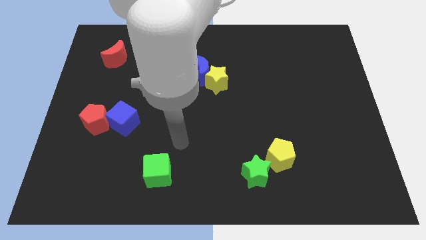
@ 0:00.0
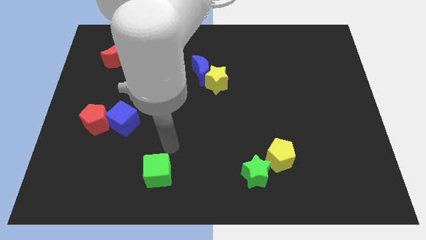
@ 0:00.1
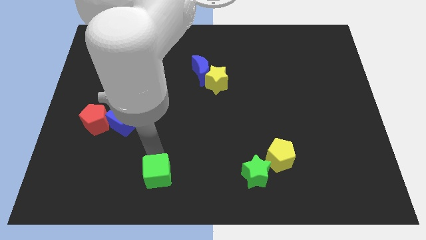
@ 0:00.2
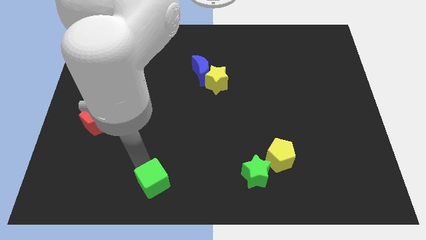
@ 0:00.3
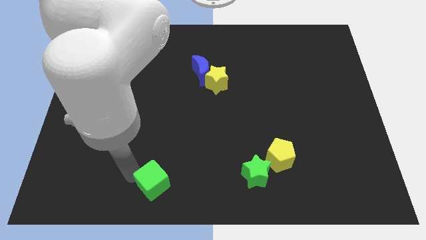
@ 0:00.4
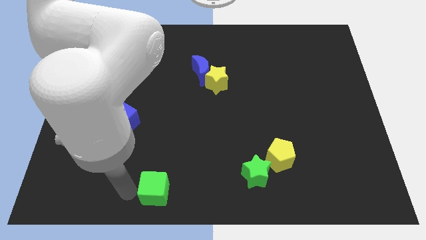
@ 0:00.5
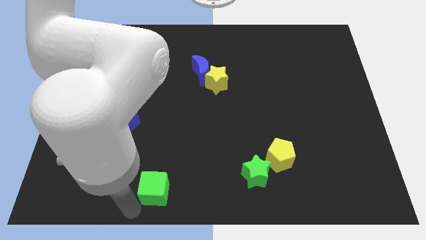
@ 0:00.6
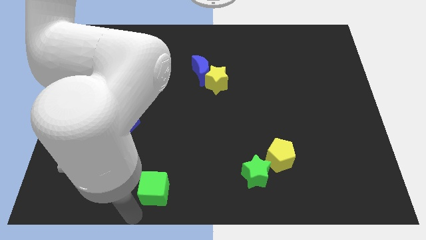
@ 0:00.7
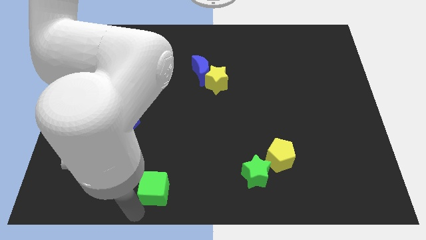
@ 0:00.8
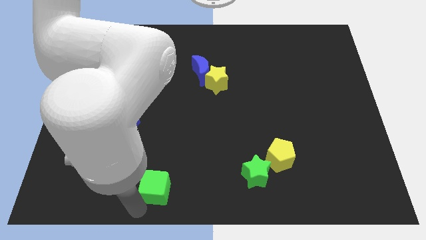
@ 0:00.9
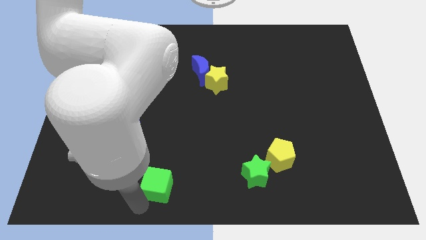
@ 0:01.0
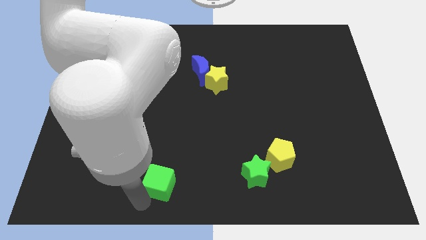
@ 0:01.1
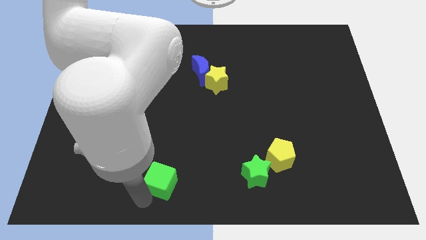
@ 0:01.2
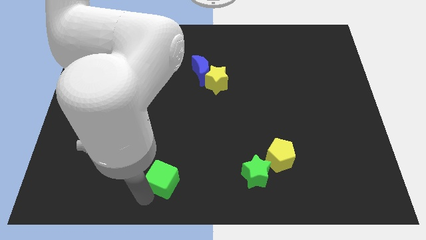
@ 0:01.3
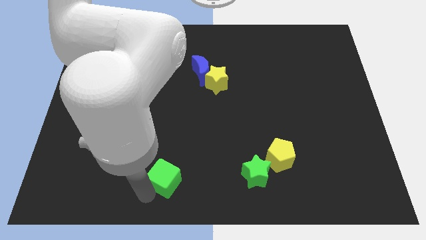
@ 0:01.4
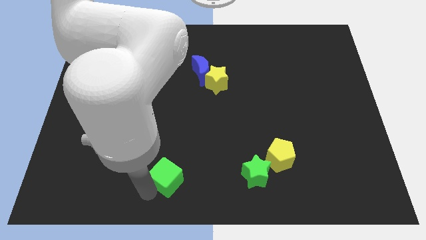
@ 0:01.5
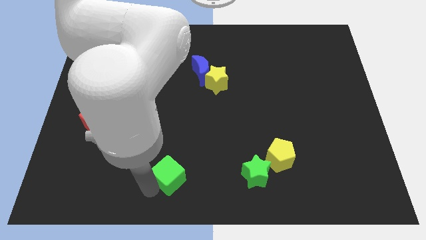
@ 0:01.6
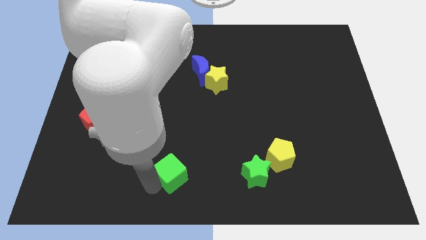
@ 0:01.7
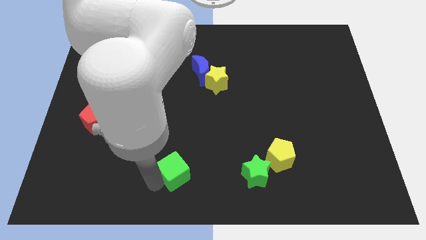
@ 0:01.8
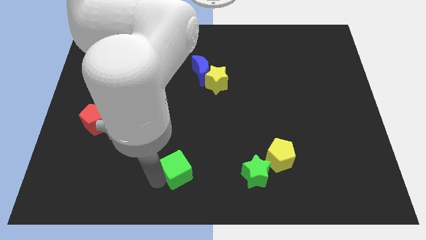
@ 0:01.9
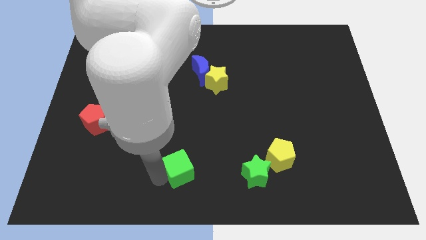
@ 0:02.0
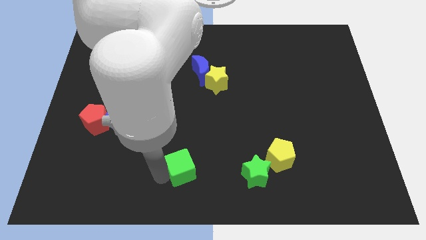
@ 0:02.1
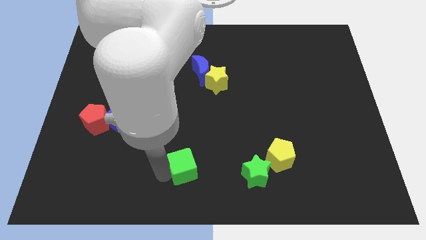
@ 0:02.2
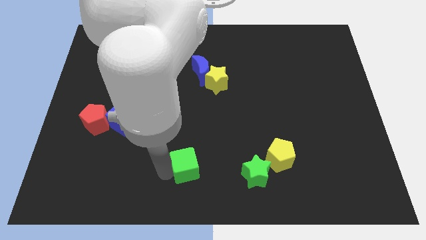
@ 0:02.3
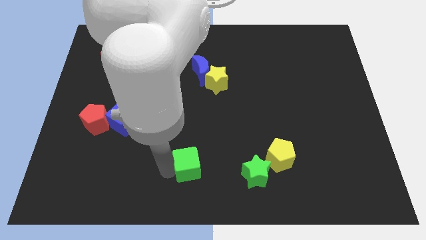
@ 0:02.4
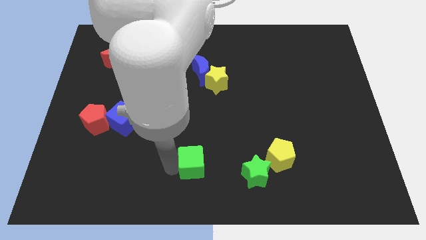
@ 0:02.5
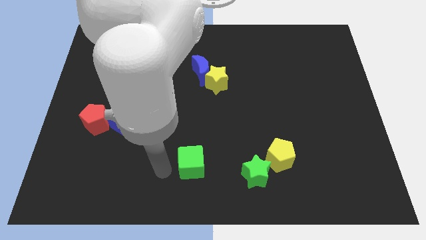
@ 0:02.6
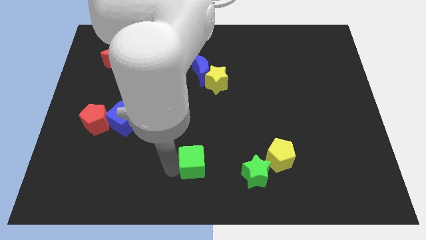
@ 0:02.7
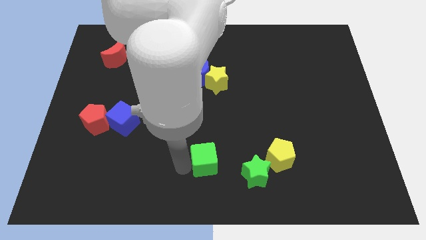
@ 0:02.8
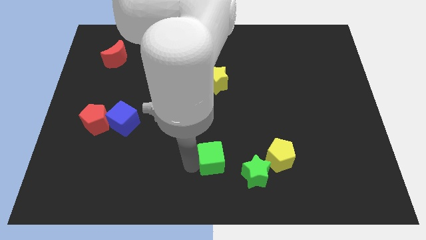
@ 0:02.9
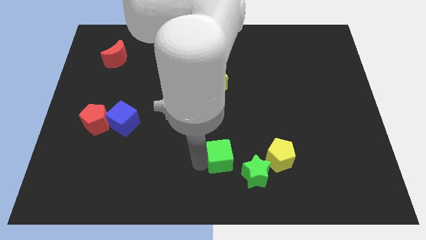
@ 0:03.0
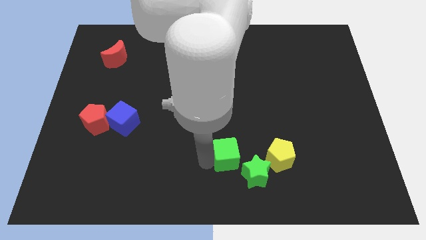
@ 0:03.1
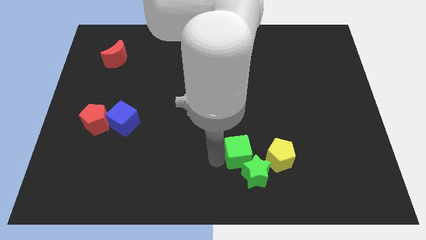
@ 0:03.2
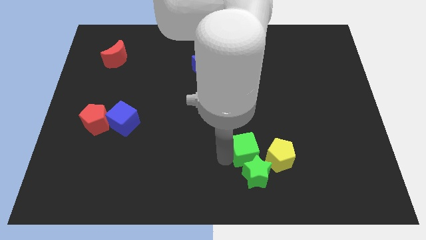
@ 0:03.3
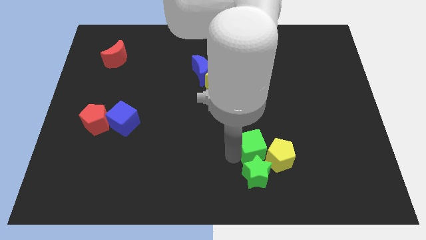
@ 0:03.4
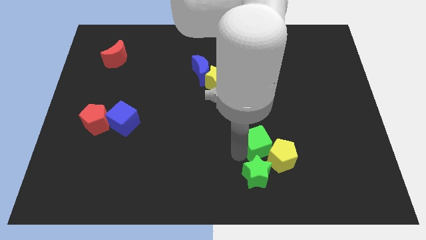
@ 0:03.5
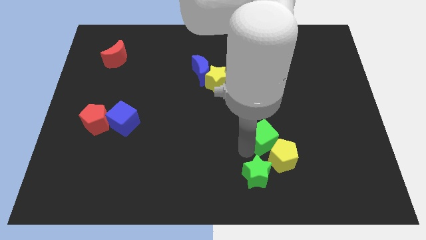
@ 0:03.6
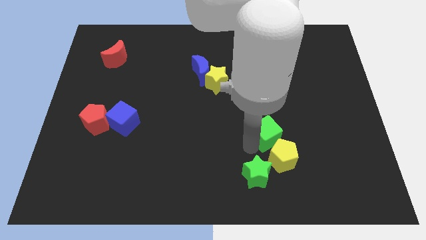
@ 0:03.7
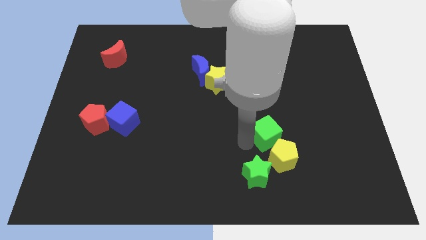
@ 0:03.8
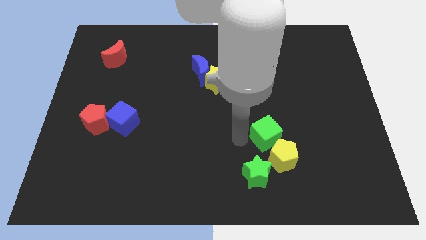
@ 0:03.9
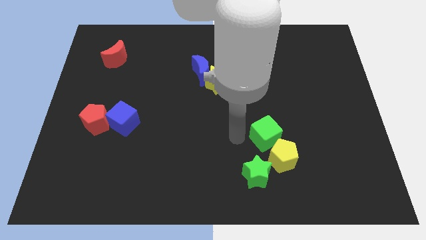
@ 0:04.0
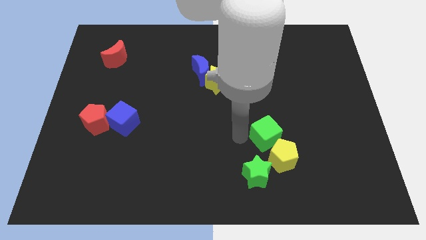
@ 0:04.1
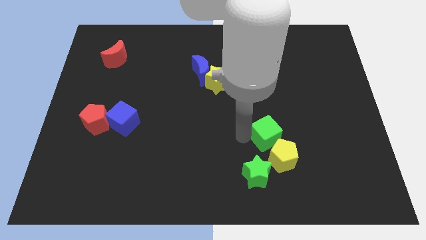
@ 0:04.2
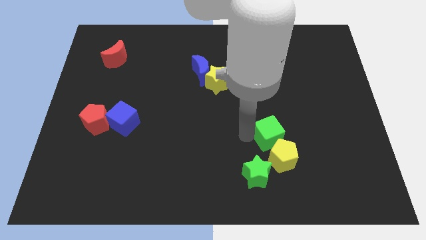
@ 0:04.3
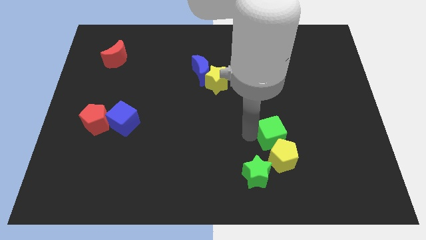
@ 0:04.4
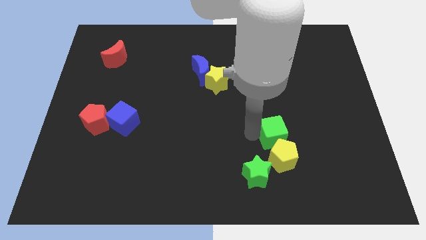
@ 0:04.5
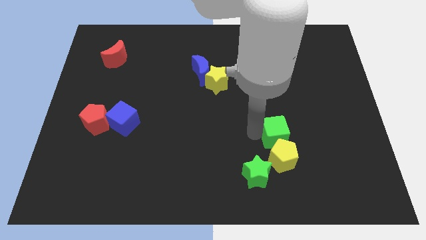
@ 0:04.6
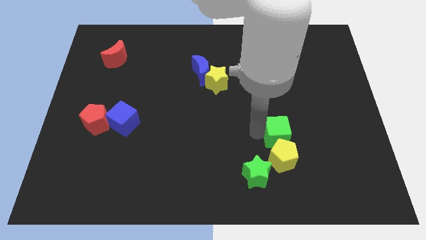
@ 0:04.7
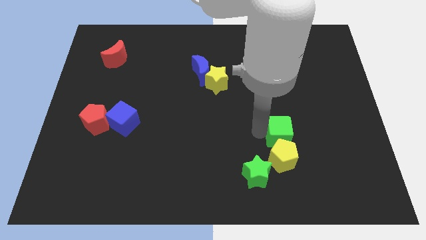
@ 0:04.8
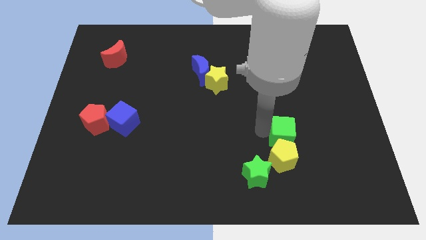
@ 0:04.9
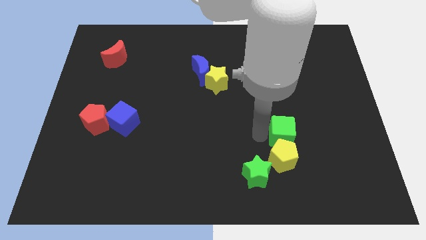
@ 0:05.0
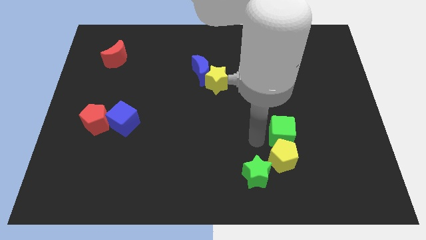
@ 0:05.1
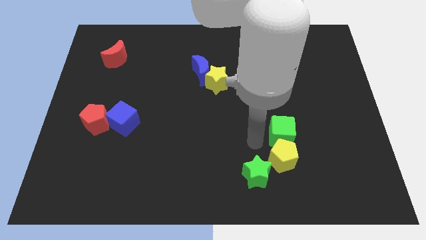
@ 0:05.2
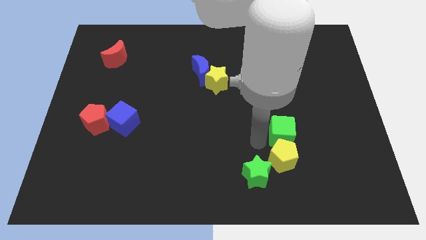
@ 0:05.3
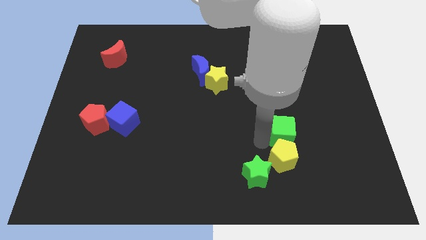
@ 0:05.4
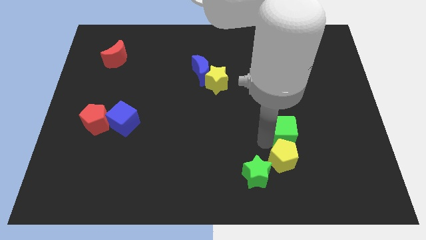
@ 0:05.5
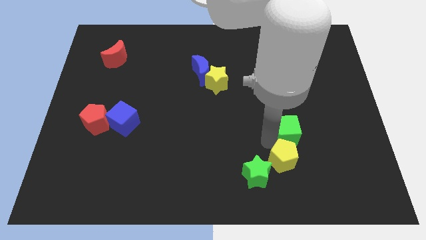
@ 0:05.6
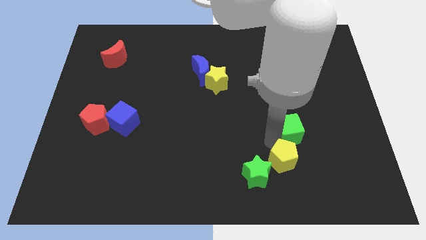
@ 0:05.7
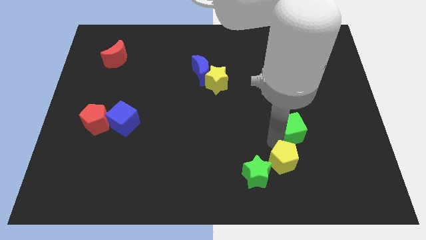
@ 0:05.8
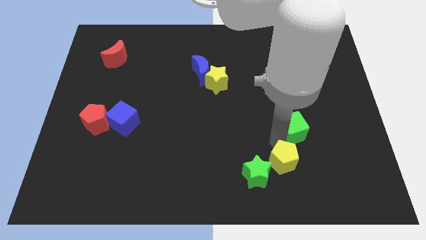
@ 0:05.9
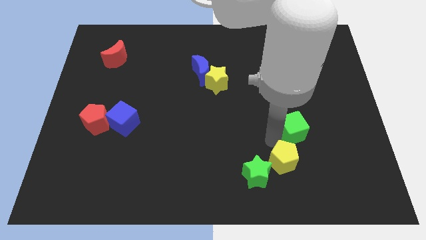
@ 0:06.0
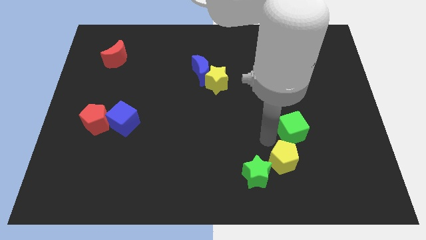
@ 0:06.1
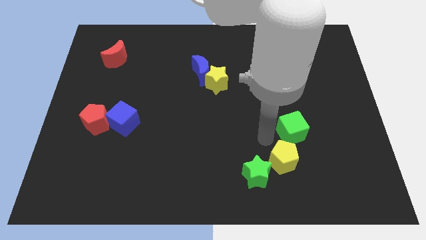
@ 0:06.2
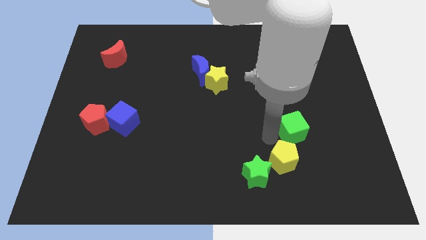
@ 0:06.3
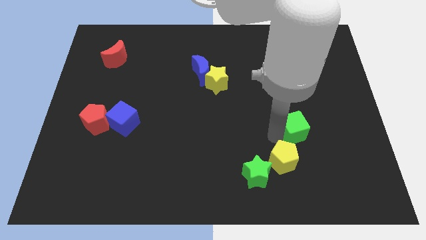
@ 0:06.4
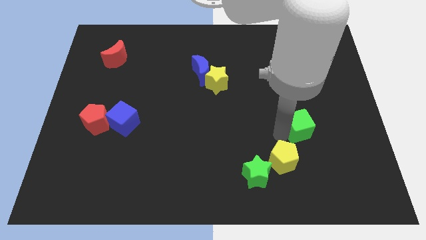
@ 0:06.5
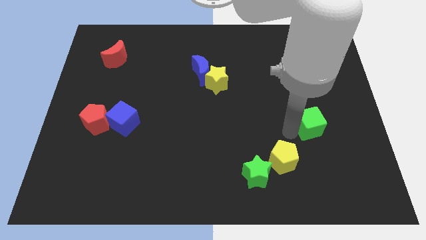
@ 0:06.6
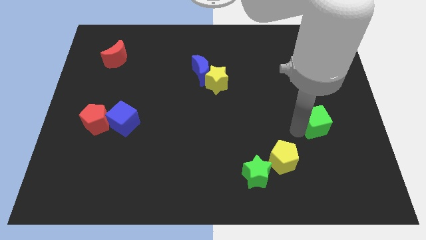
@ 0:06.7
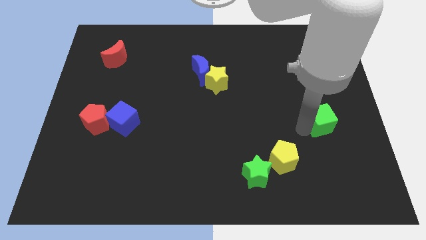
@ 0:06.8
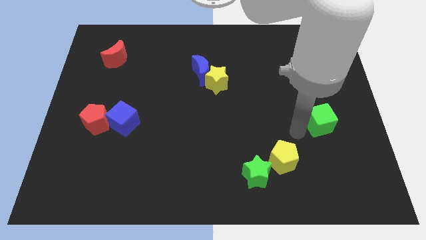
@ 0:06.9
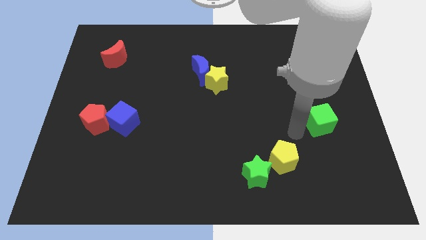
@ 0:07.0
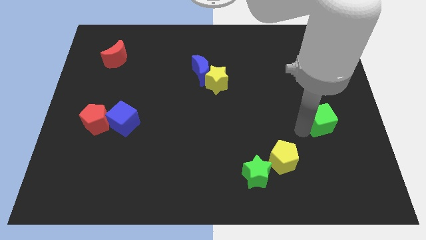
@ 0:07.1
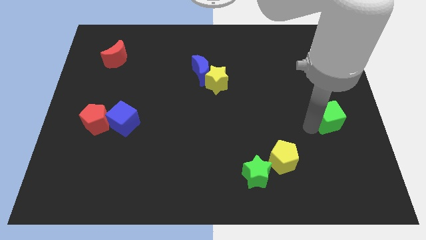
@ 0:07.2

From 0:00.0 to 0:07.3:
put the green cube to the right side

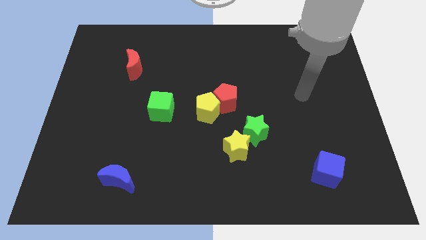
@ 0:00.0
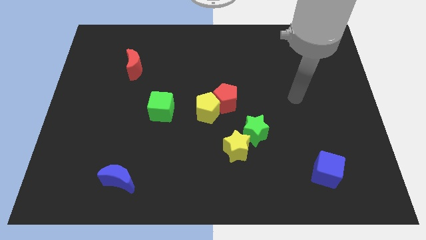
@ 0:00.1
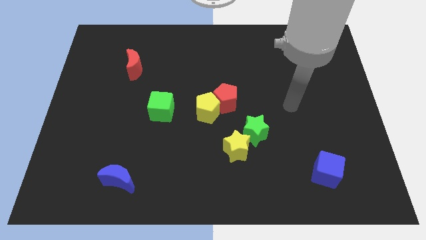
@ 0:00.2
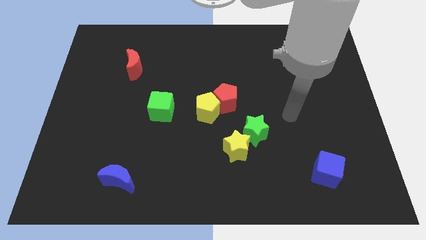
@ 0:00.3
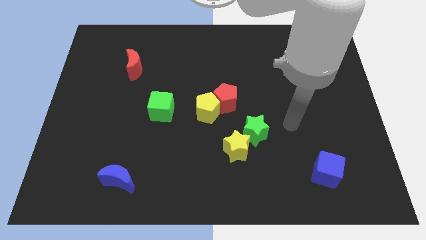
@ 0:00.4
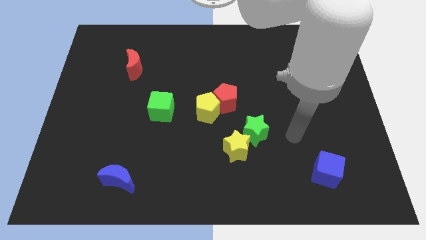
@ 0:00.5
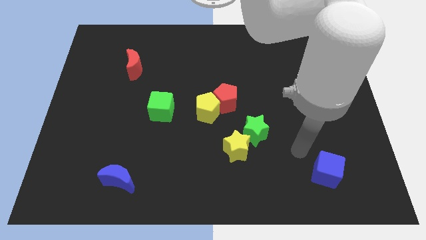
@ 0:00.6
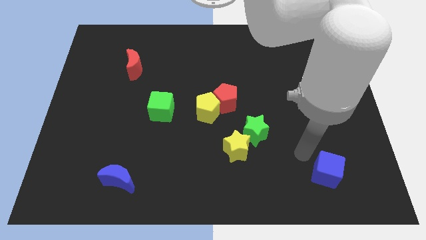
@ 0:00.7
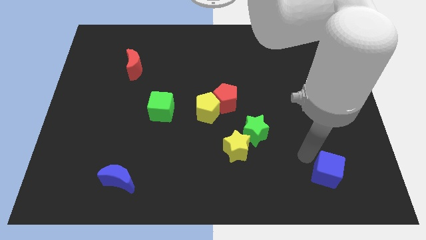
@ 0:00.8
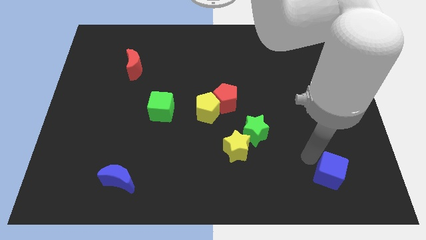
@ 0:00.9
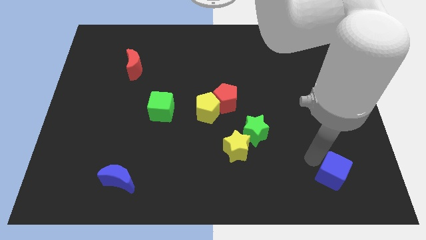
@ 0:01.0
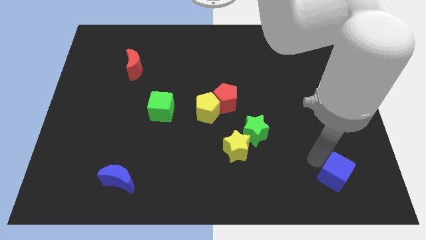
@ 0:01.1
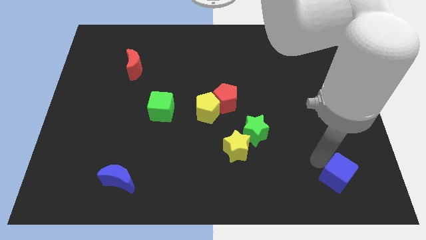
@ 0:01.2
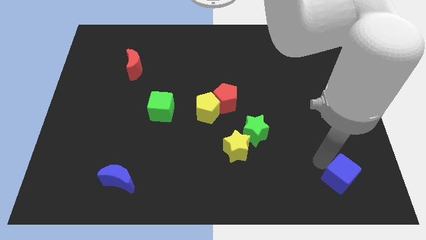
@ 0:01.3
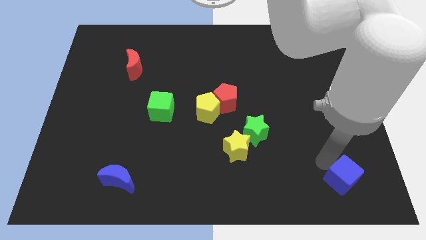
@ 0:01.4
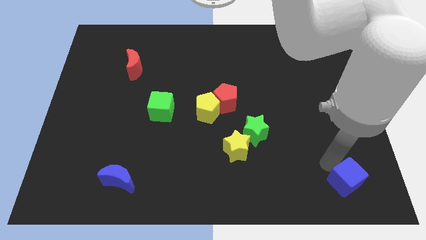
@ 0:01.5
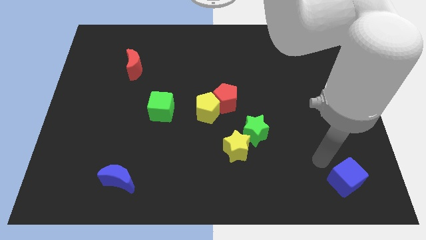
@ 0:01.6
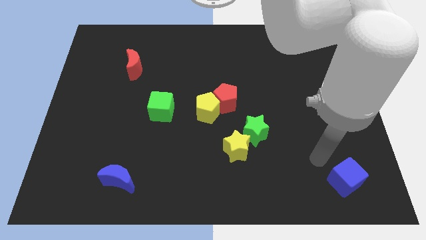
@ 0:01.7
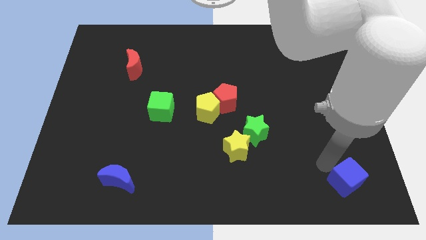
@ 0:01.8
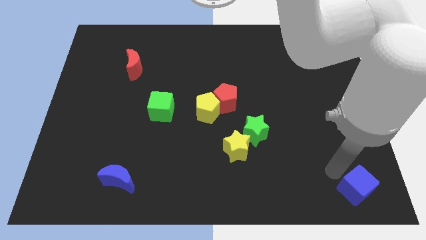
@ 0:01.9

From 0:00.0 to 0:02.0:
slide the blue cube to the bottom right of the board
